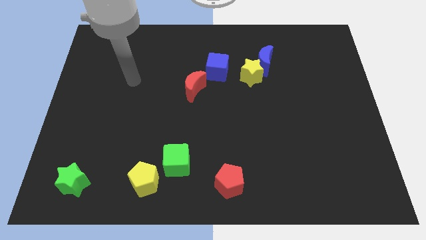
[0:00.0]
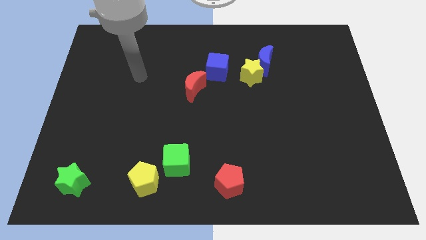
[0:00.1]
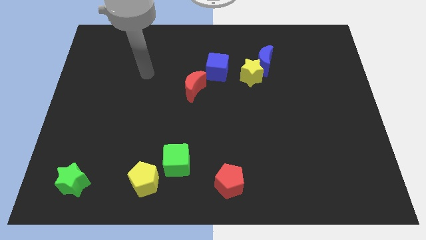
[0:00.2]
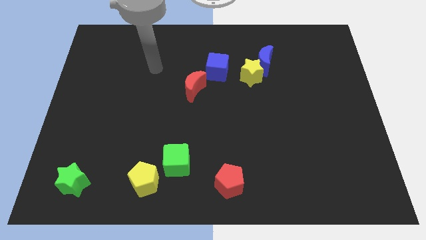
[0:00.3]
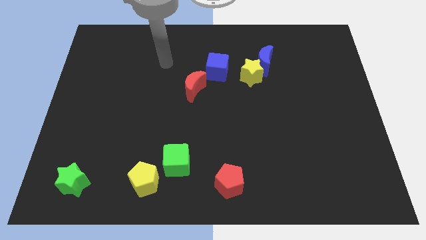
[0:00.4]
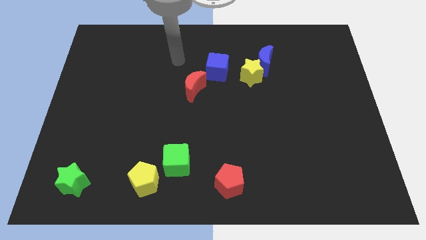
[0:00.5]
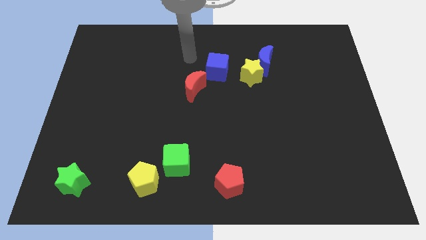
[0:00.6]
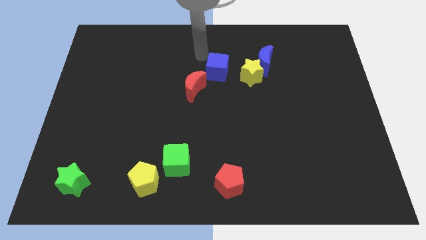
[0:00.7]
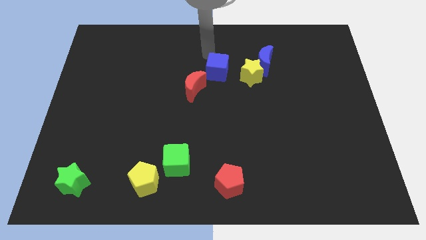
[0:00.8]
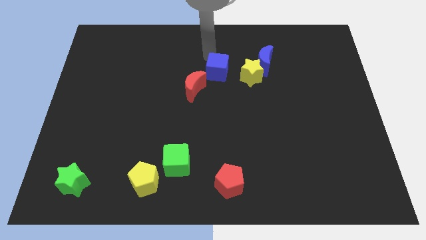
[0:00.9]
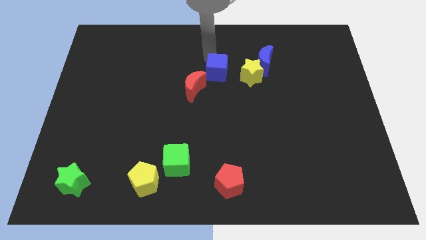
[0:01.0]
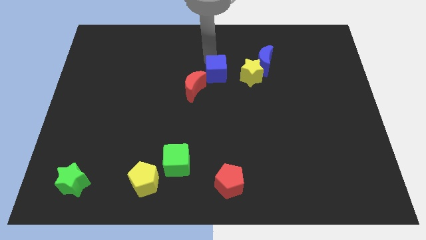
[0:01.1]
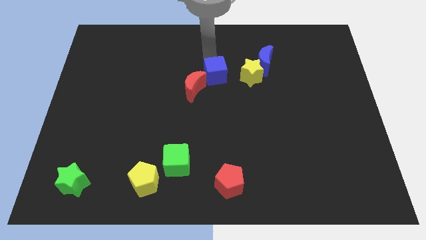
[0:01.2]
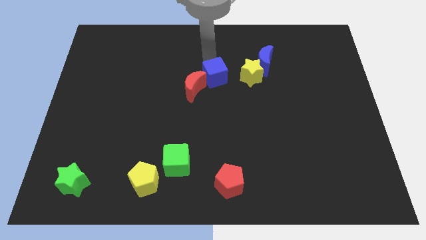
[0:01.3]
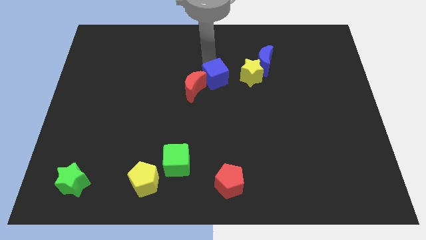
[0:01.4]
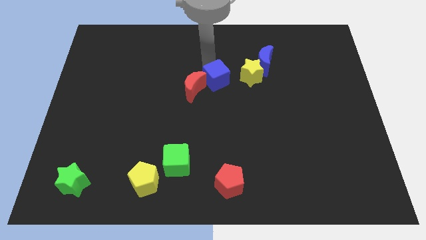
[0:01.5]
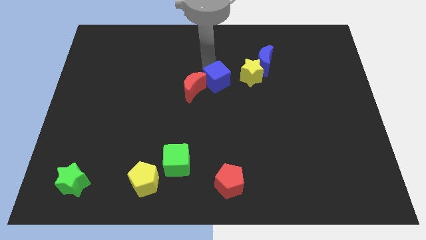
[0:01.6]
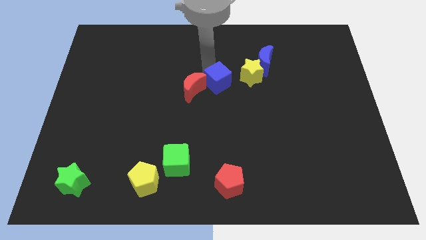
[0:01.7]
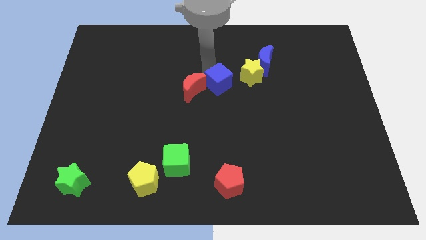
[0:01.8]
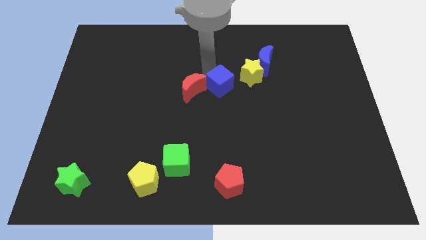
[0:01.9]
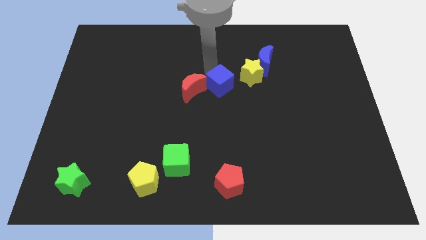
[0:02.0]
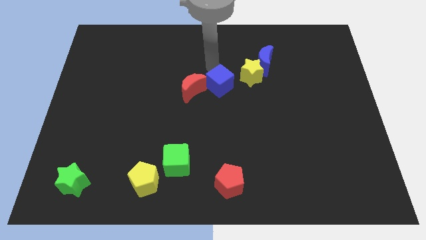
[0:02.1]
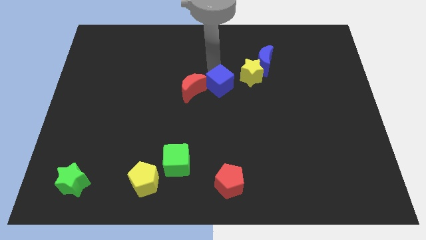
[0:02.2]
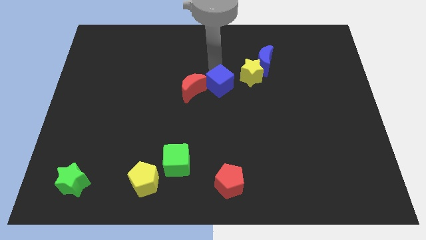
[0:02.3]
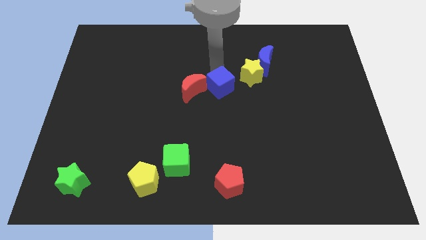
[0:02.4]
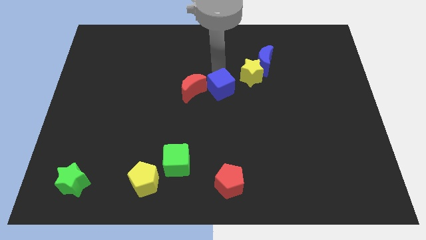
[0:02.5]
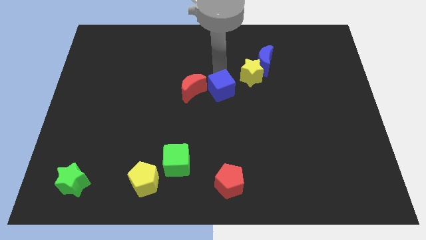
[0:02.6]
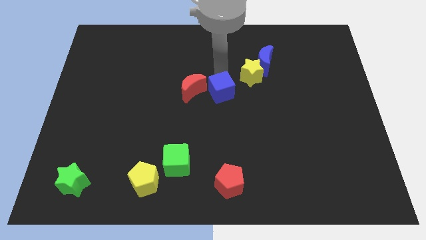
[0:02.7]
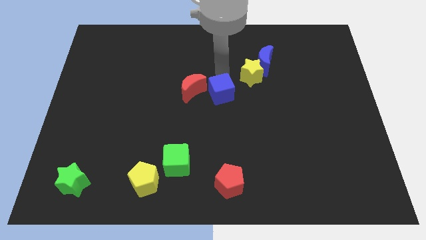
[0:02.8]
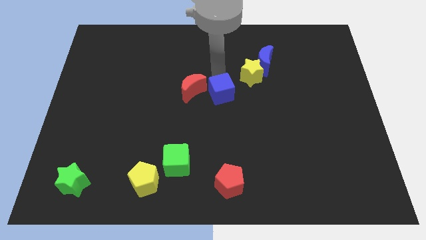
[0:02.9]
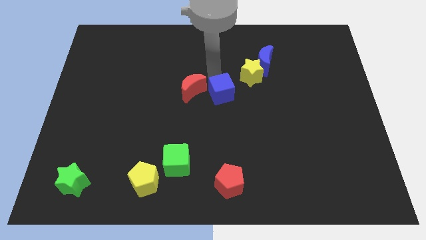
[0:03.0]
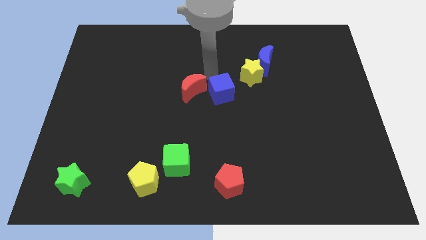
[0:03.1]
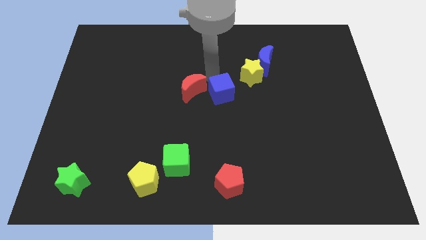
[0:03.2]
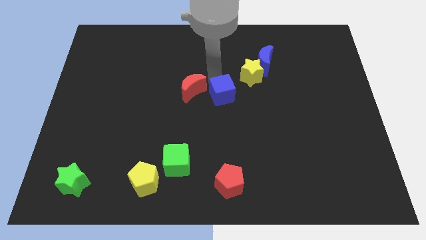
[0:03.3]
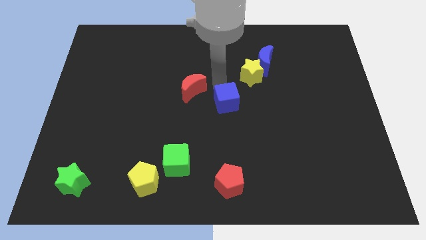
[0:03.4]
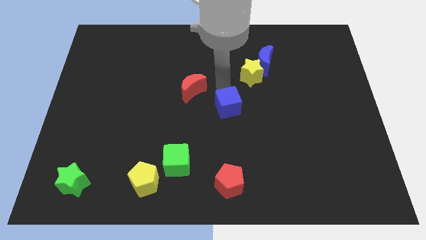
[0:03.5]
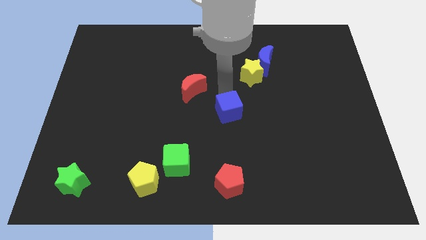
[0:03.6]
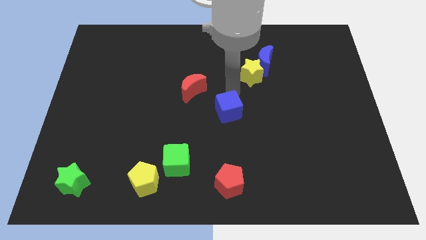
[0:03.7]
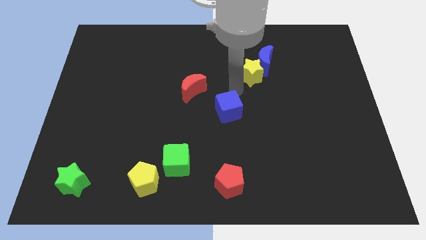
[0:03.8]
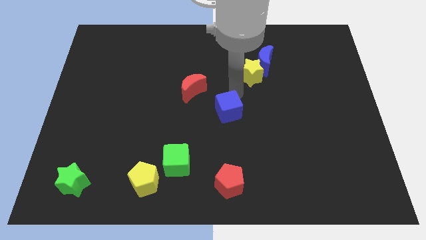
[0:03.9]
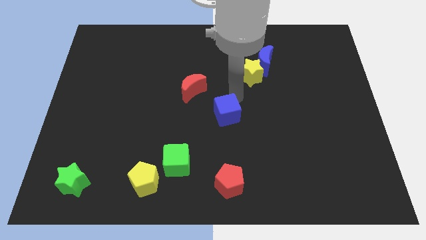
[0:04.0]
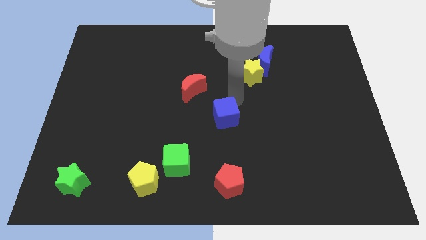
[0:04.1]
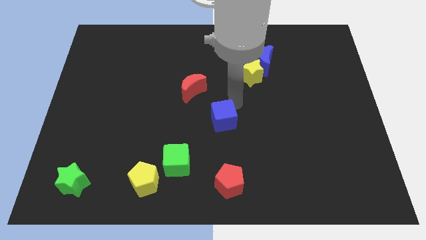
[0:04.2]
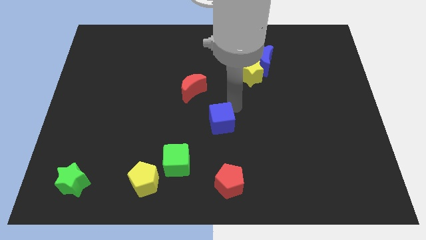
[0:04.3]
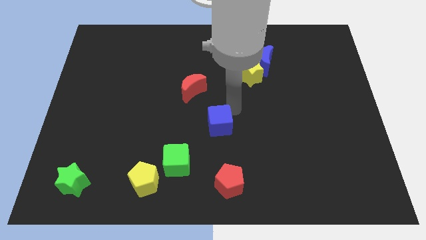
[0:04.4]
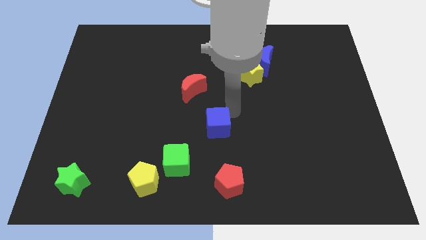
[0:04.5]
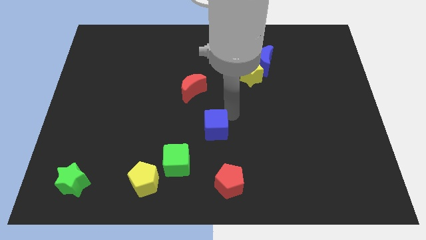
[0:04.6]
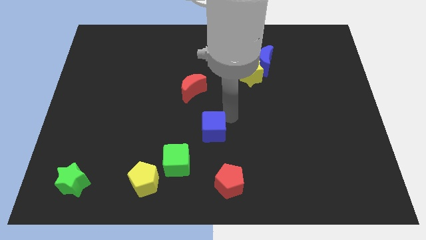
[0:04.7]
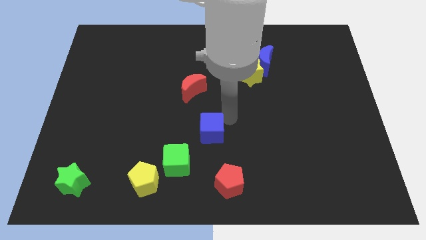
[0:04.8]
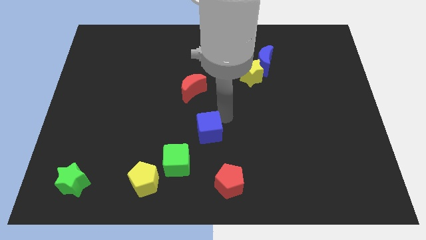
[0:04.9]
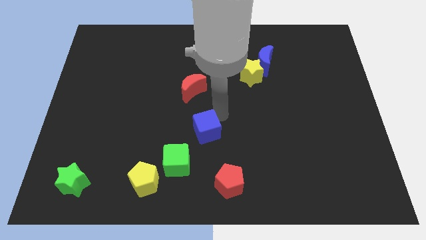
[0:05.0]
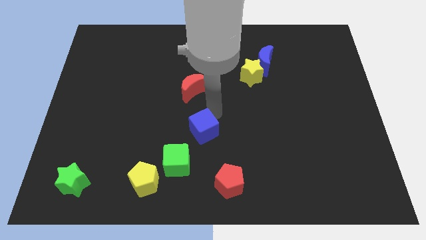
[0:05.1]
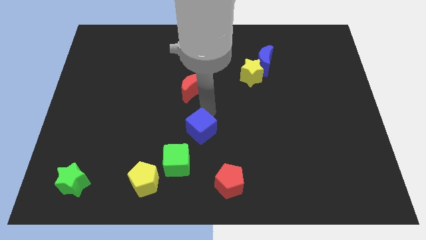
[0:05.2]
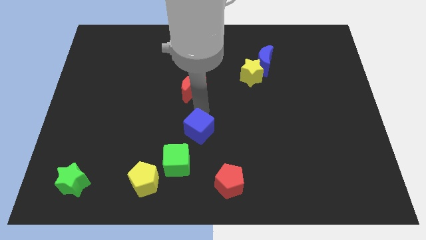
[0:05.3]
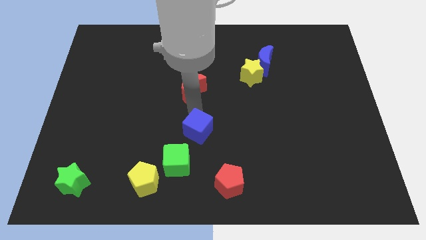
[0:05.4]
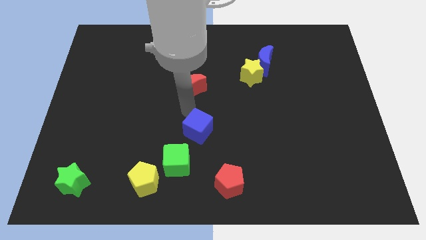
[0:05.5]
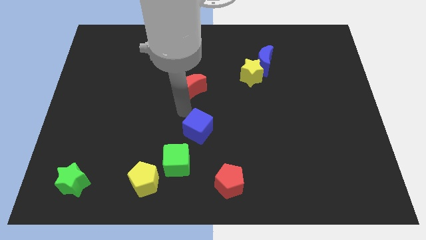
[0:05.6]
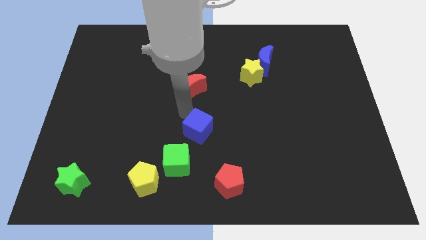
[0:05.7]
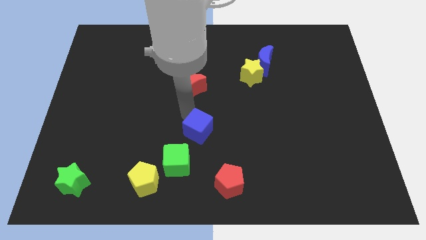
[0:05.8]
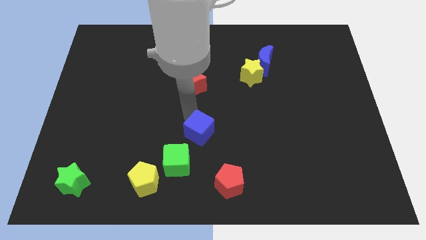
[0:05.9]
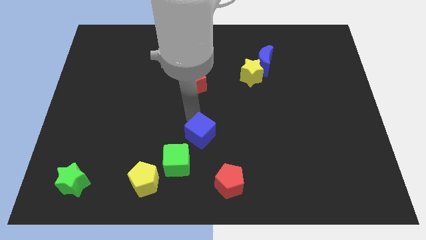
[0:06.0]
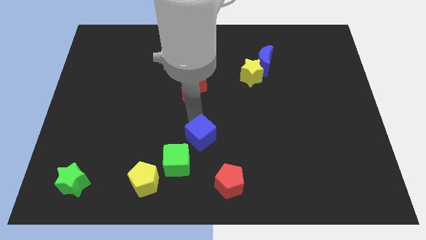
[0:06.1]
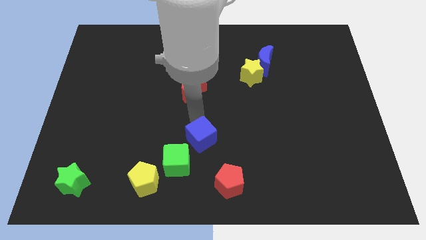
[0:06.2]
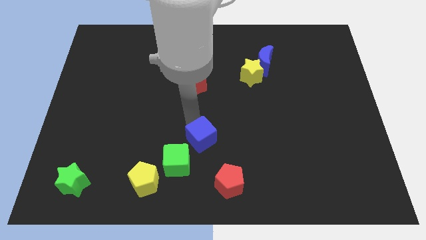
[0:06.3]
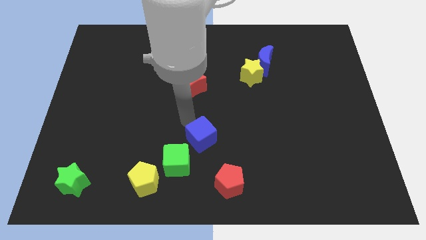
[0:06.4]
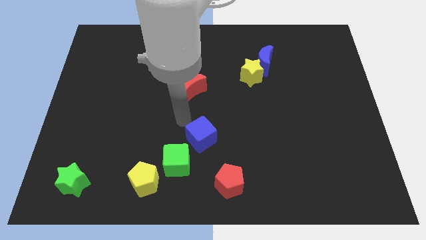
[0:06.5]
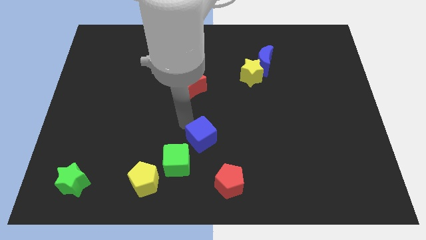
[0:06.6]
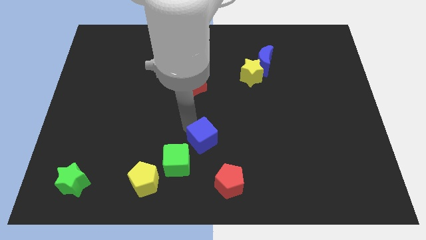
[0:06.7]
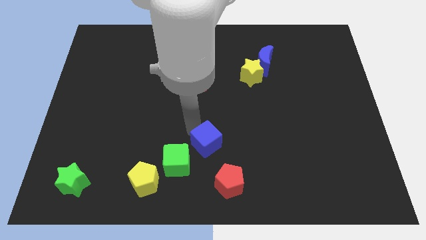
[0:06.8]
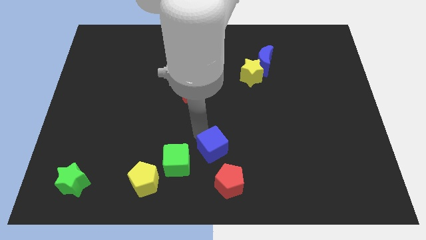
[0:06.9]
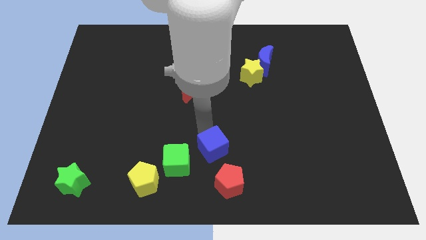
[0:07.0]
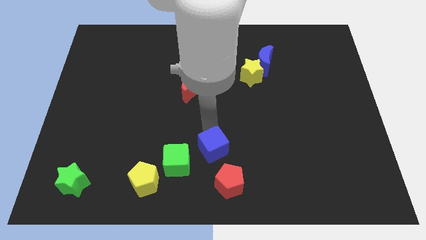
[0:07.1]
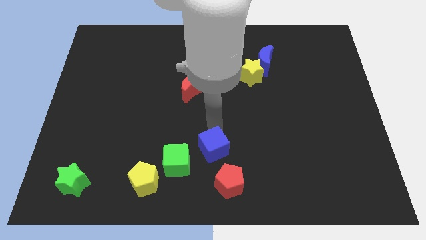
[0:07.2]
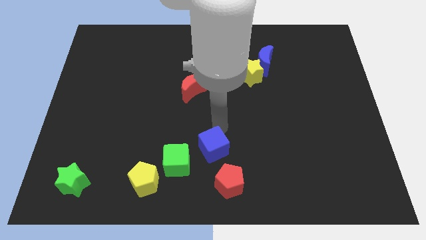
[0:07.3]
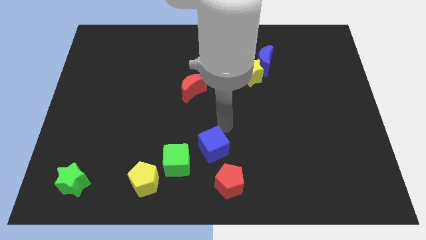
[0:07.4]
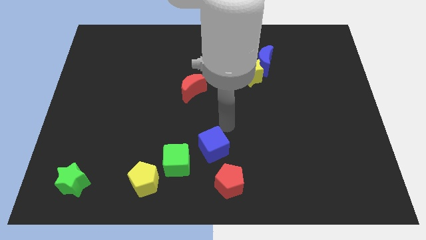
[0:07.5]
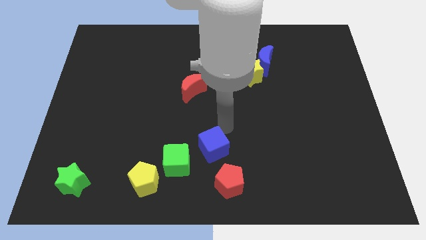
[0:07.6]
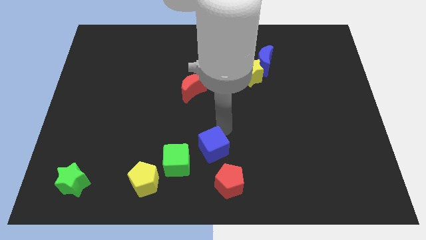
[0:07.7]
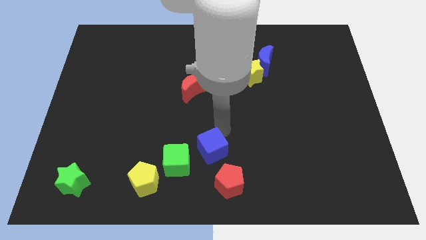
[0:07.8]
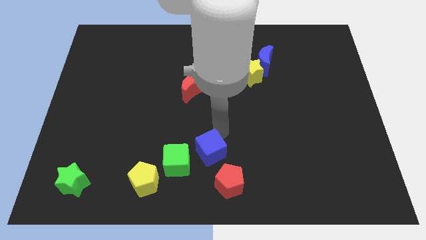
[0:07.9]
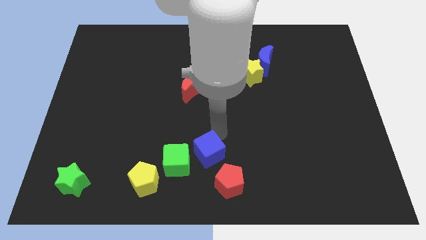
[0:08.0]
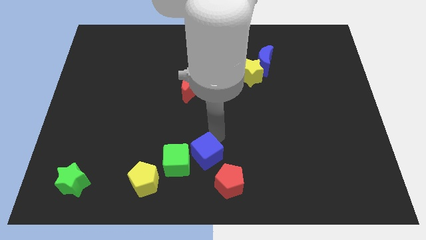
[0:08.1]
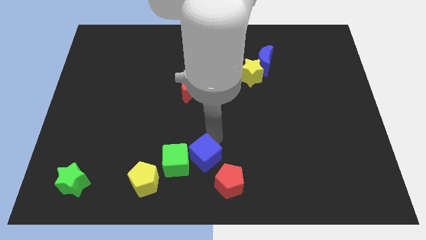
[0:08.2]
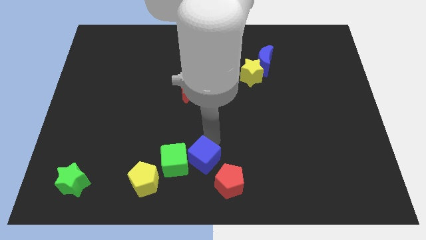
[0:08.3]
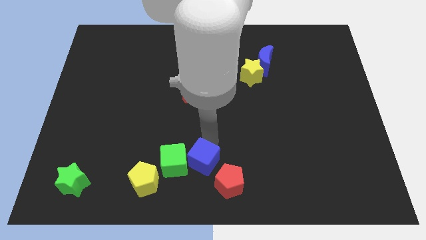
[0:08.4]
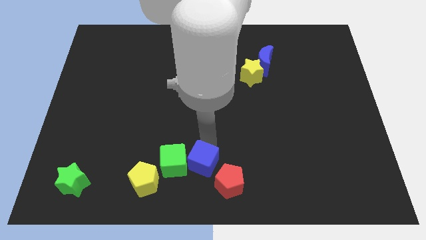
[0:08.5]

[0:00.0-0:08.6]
move the blue cube to the left of the red pentagon
